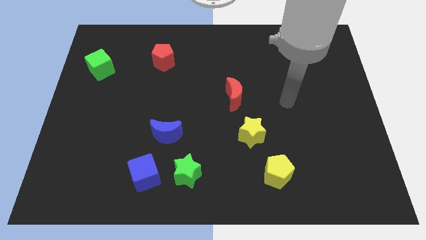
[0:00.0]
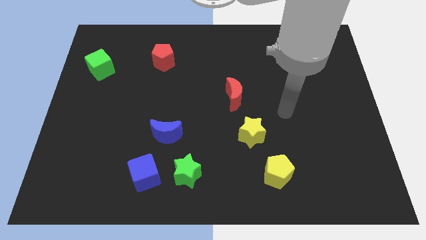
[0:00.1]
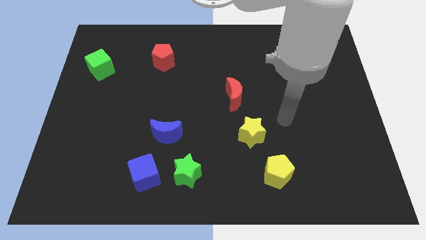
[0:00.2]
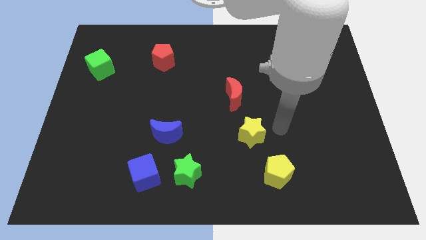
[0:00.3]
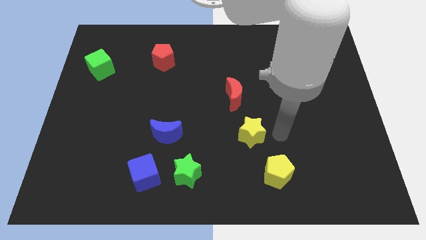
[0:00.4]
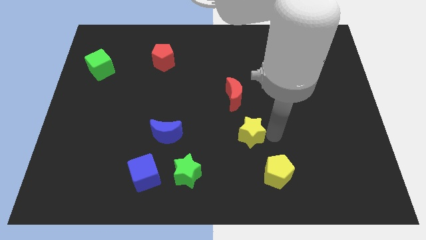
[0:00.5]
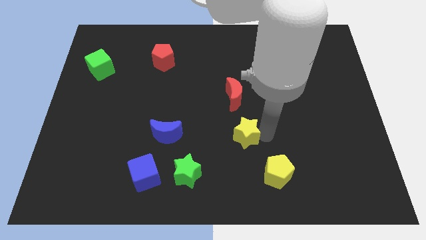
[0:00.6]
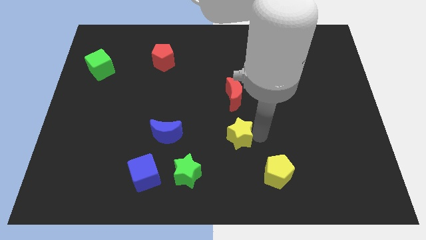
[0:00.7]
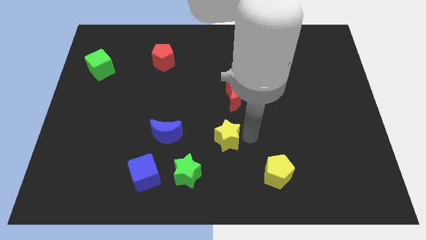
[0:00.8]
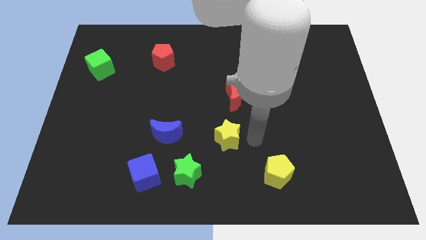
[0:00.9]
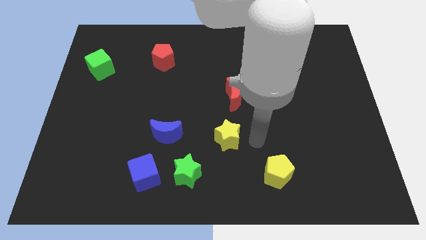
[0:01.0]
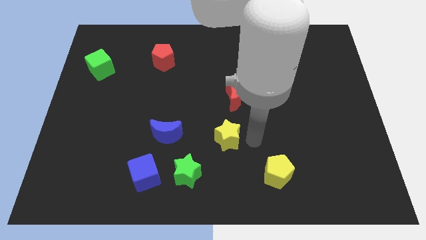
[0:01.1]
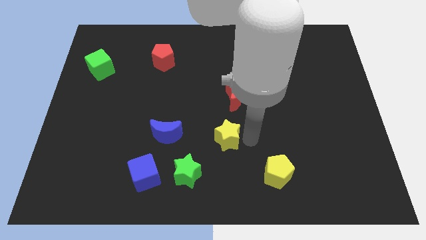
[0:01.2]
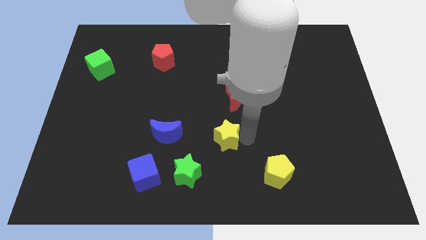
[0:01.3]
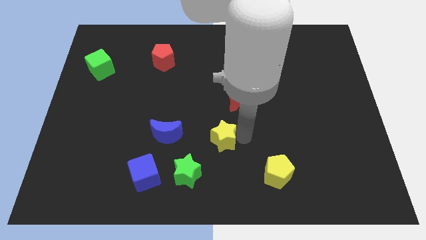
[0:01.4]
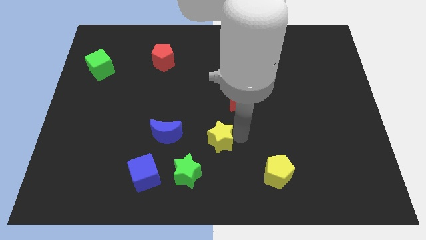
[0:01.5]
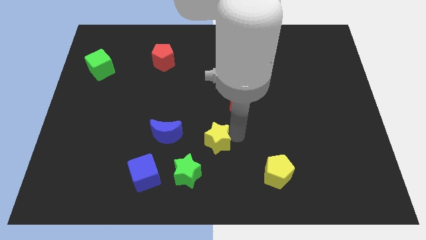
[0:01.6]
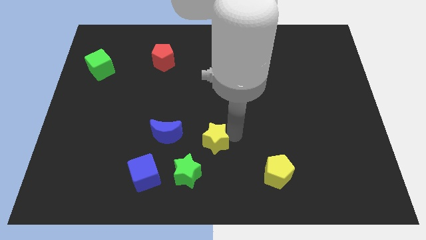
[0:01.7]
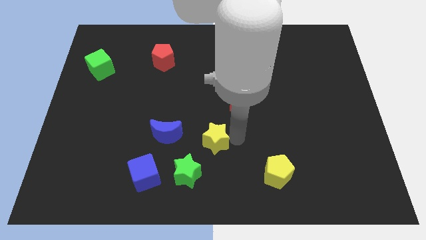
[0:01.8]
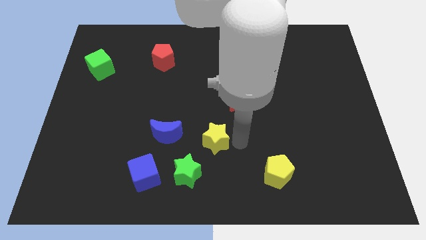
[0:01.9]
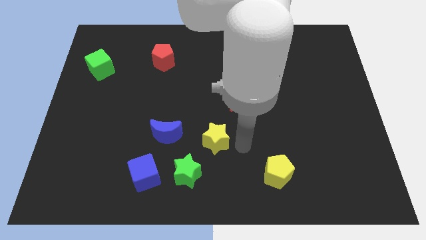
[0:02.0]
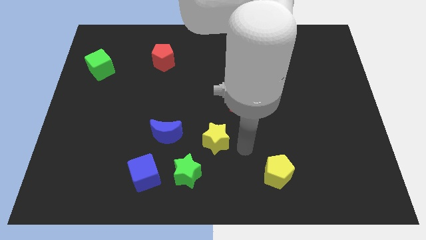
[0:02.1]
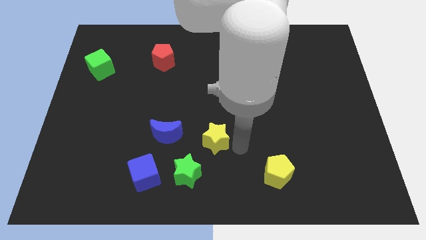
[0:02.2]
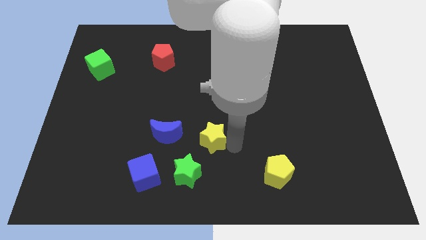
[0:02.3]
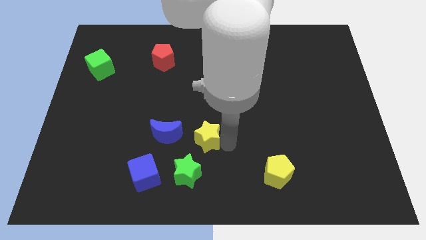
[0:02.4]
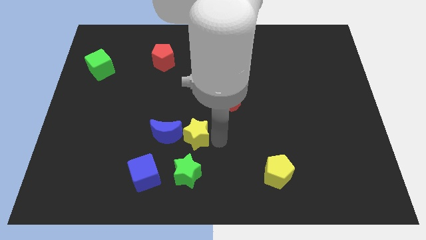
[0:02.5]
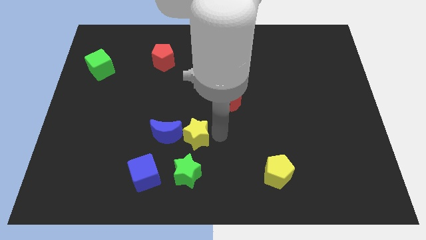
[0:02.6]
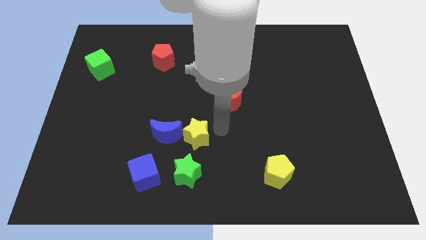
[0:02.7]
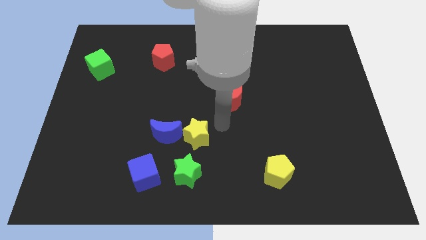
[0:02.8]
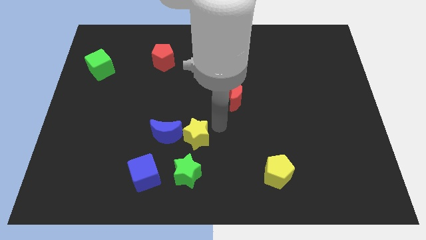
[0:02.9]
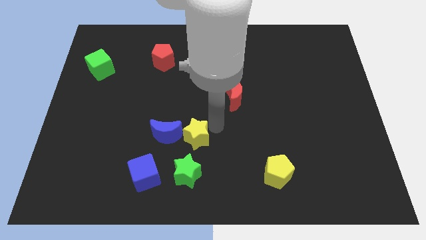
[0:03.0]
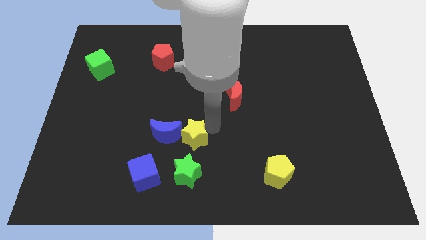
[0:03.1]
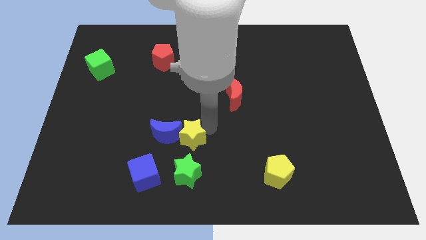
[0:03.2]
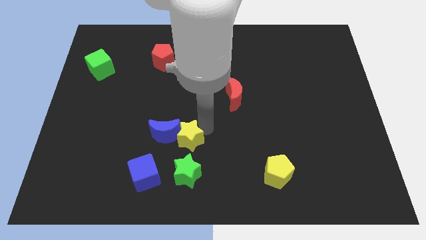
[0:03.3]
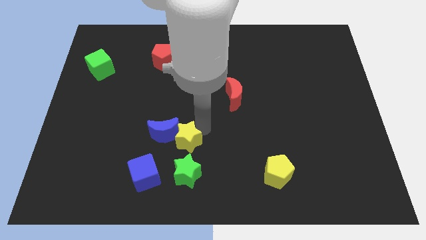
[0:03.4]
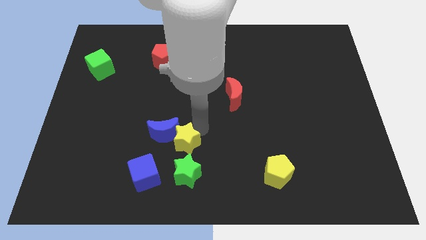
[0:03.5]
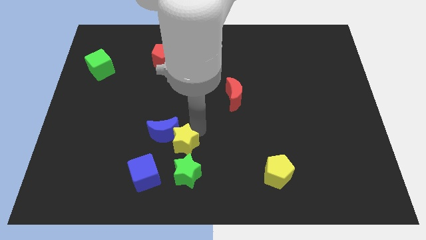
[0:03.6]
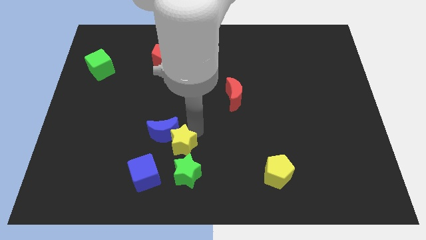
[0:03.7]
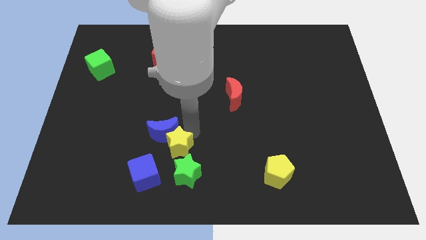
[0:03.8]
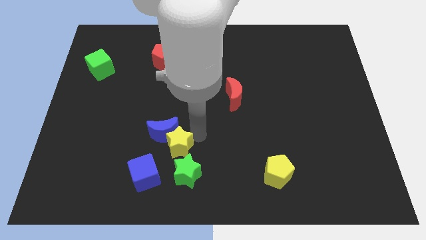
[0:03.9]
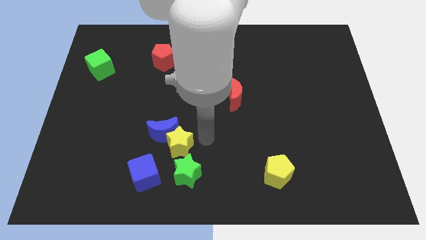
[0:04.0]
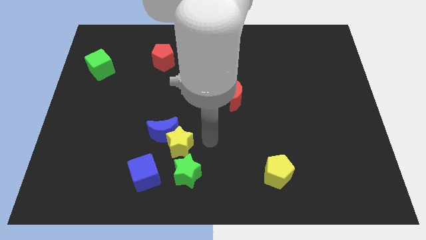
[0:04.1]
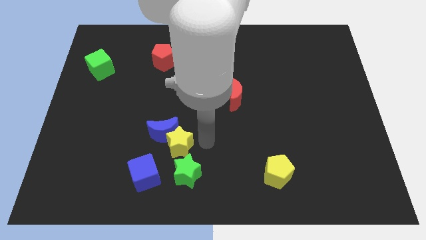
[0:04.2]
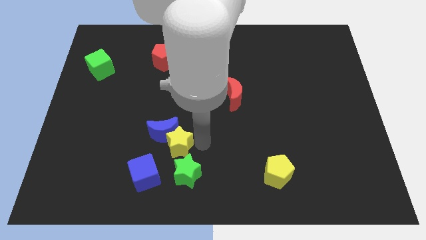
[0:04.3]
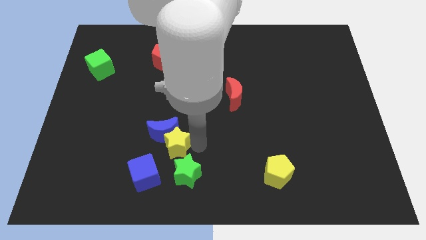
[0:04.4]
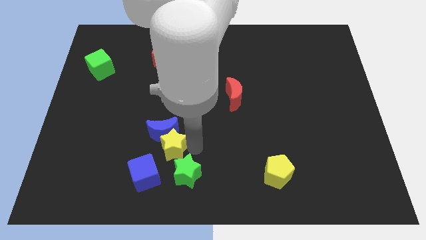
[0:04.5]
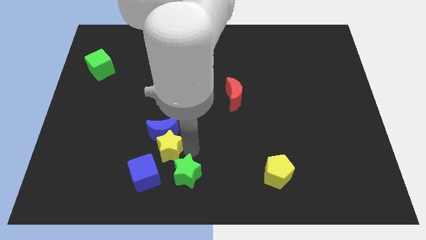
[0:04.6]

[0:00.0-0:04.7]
move the yellow star to the bottom left side of the blue moon

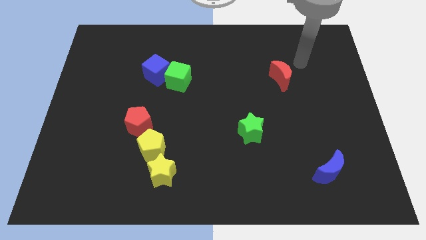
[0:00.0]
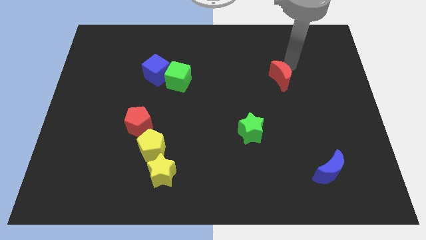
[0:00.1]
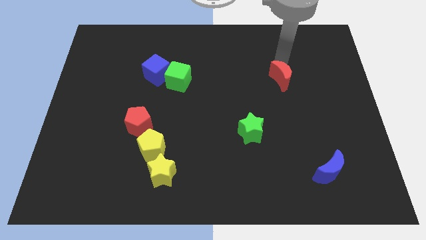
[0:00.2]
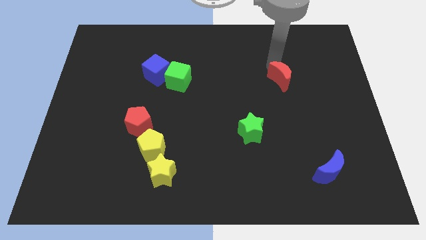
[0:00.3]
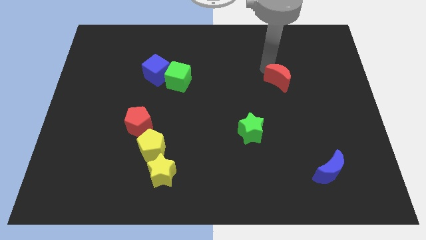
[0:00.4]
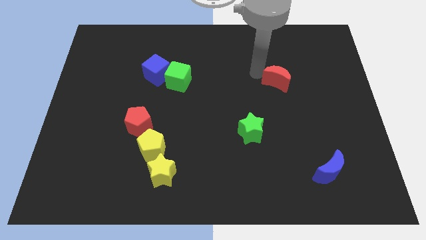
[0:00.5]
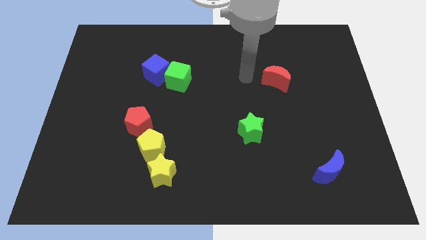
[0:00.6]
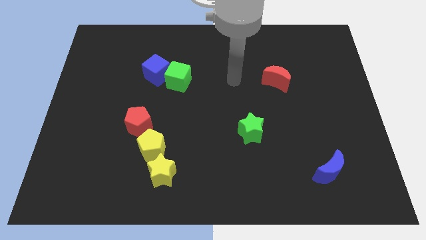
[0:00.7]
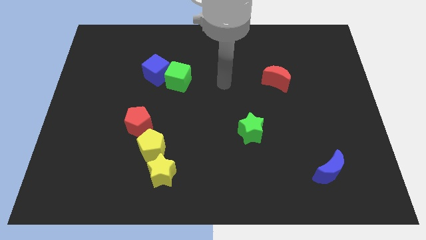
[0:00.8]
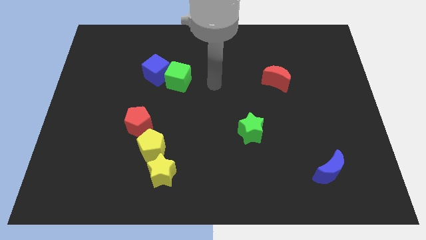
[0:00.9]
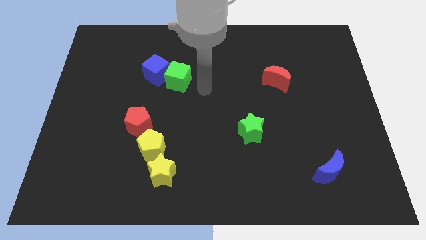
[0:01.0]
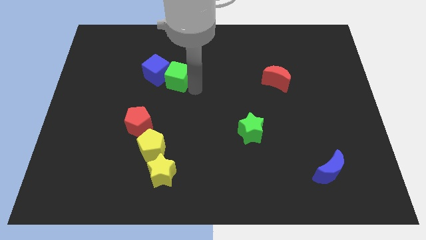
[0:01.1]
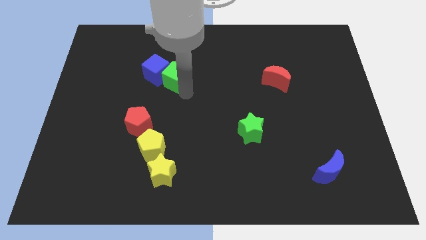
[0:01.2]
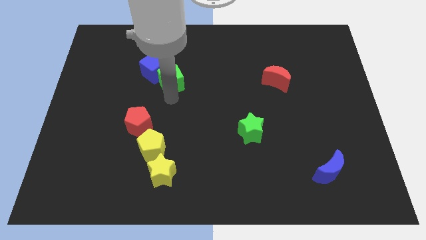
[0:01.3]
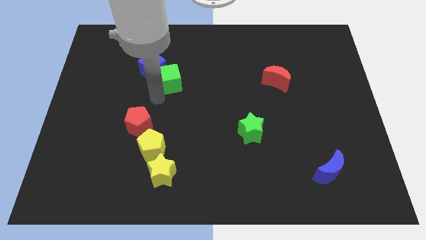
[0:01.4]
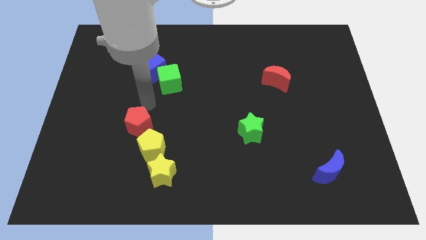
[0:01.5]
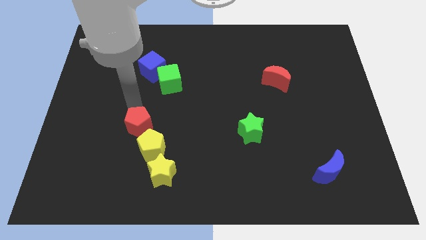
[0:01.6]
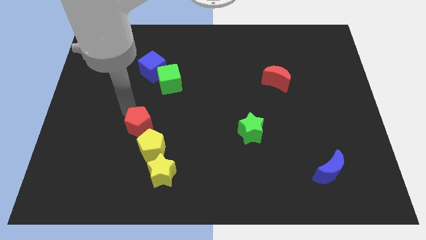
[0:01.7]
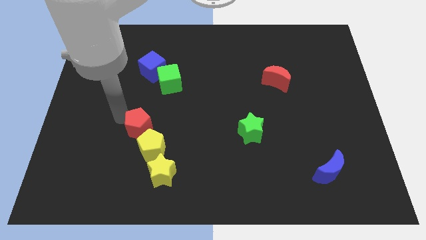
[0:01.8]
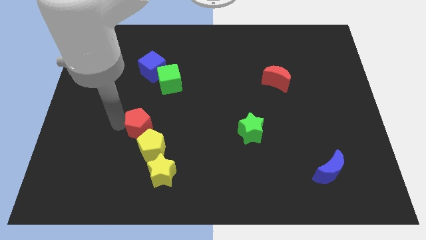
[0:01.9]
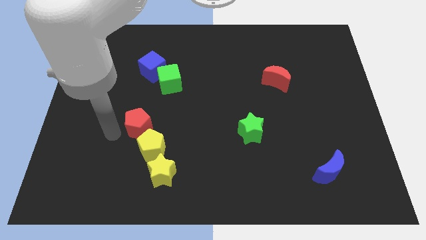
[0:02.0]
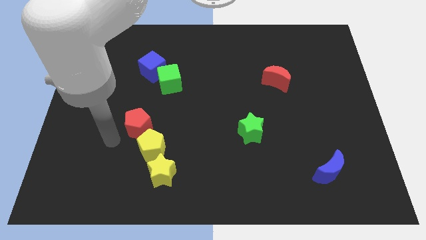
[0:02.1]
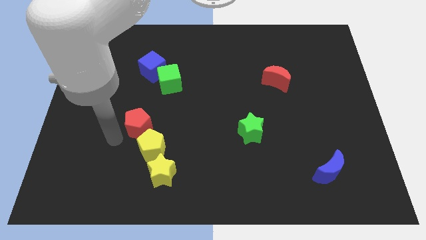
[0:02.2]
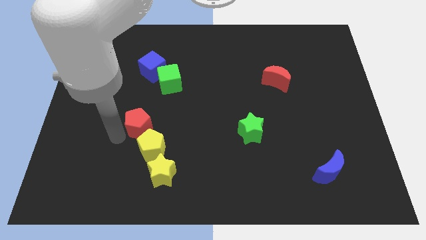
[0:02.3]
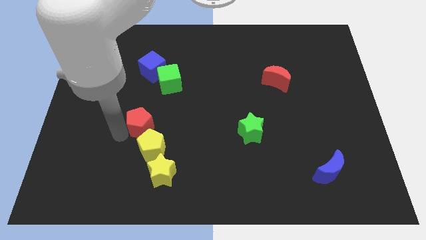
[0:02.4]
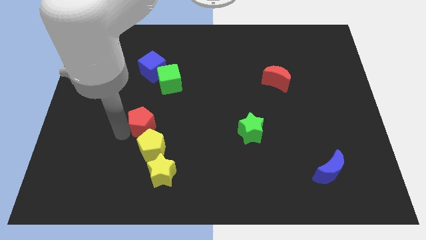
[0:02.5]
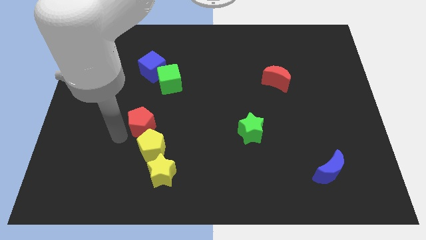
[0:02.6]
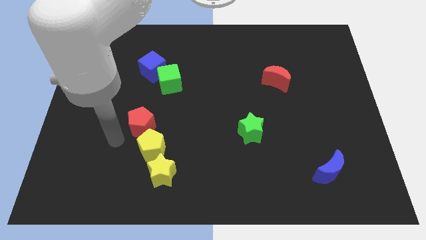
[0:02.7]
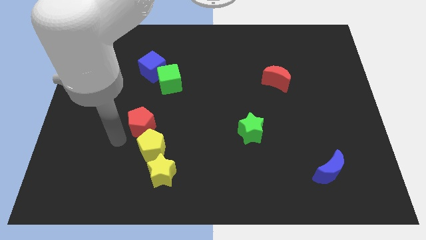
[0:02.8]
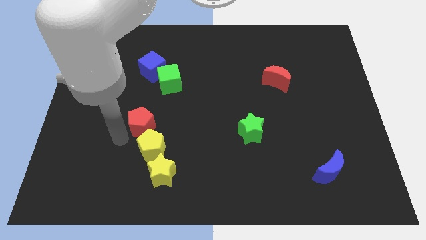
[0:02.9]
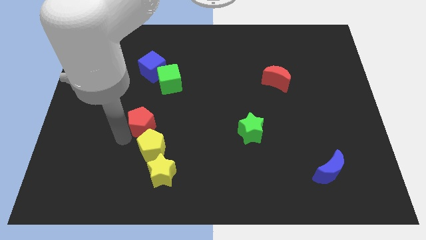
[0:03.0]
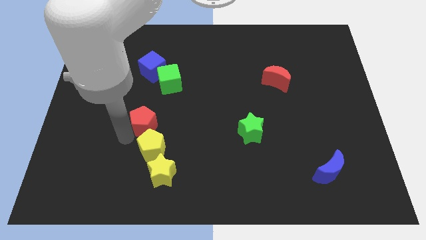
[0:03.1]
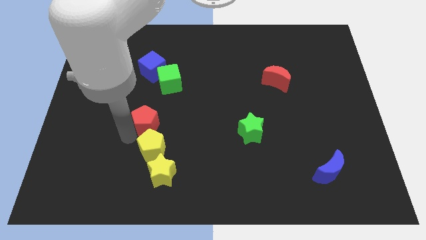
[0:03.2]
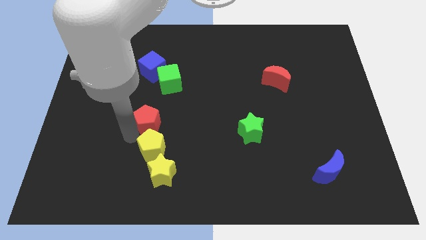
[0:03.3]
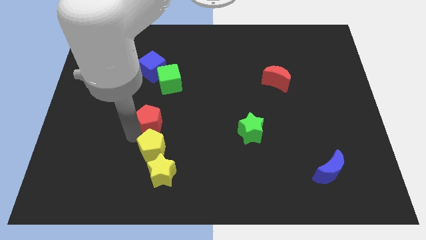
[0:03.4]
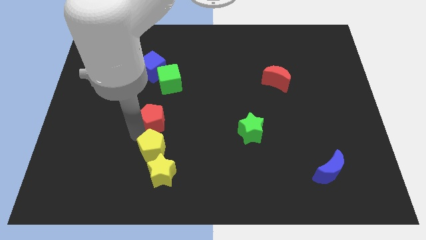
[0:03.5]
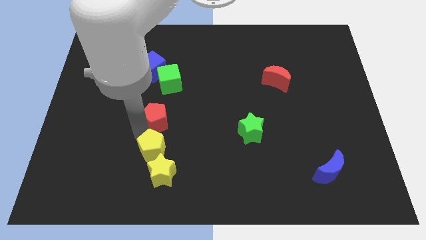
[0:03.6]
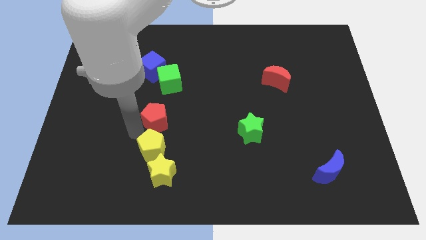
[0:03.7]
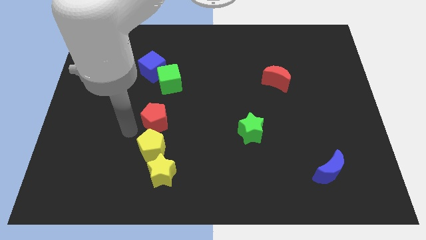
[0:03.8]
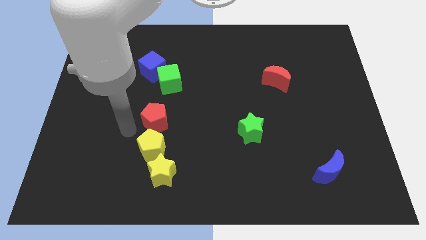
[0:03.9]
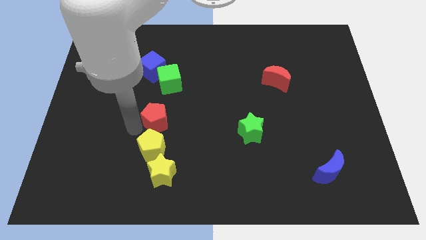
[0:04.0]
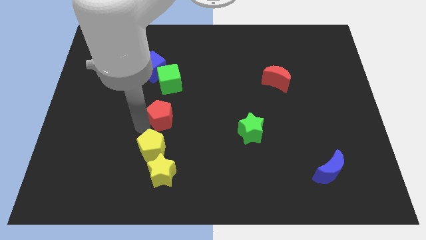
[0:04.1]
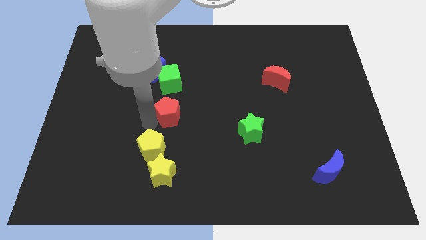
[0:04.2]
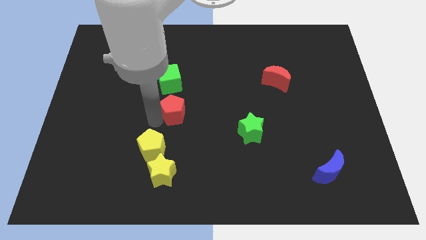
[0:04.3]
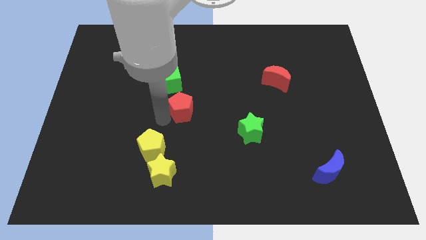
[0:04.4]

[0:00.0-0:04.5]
push the red pentagon to the bottom right of the green cube
